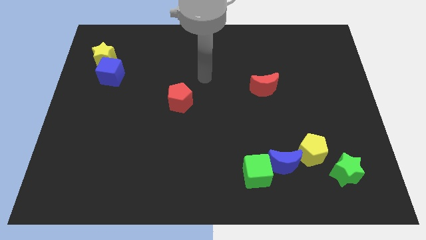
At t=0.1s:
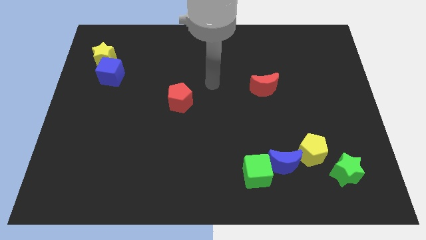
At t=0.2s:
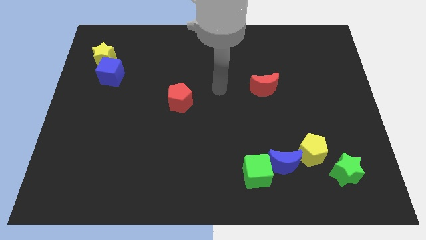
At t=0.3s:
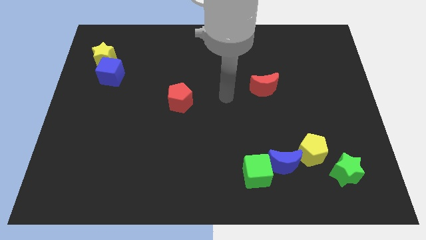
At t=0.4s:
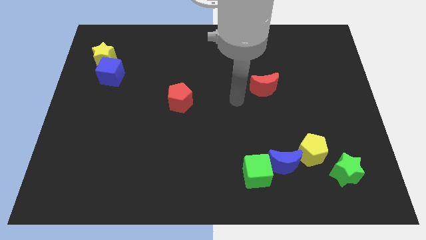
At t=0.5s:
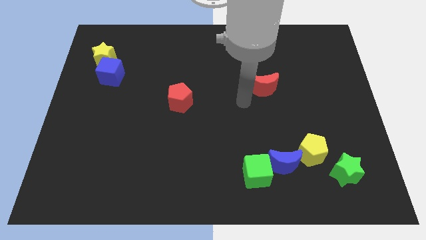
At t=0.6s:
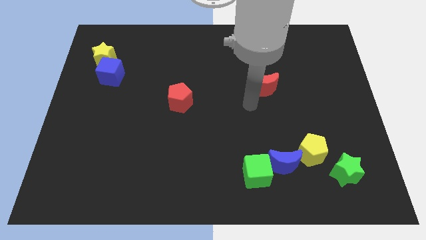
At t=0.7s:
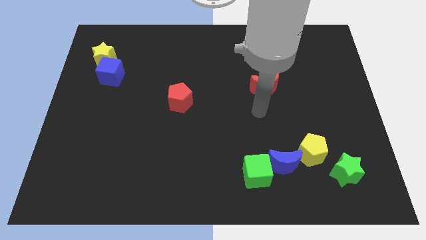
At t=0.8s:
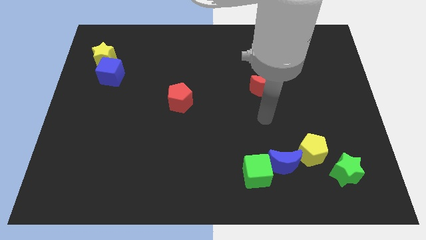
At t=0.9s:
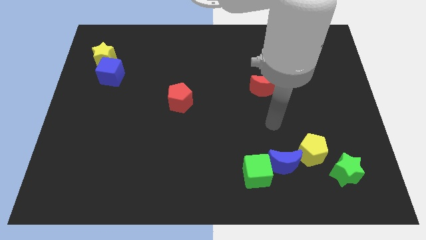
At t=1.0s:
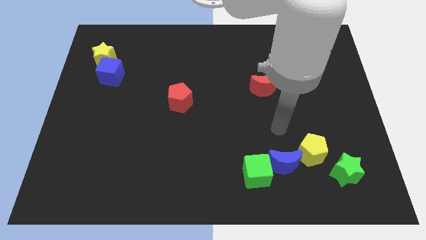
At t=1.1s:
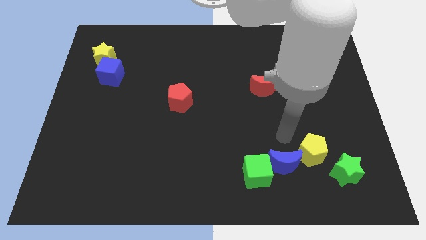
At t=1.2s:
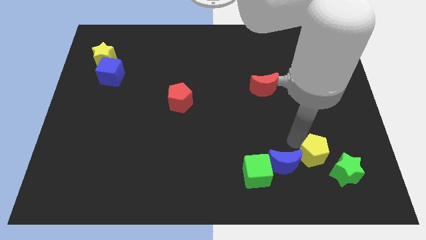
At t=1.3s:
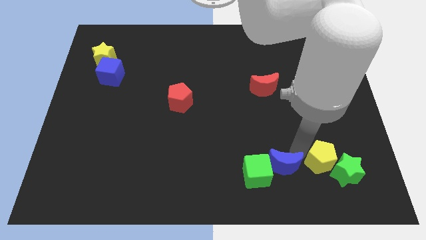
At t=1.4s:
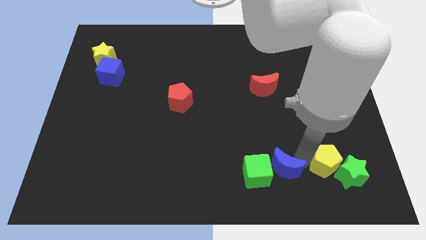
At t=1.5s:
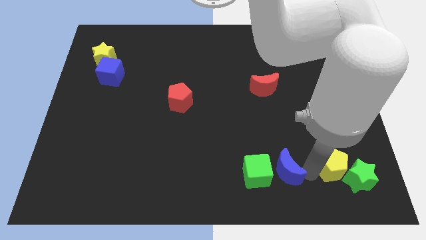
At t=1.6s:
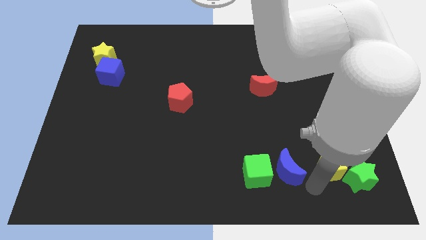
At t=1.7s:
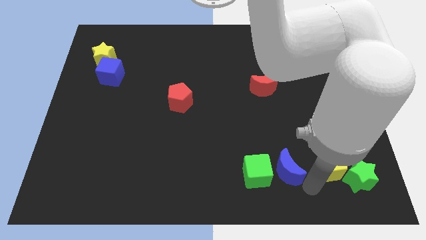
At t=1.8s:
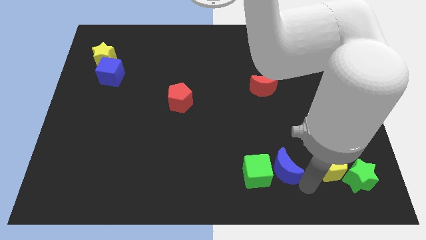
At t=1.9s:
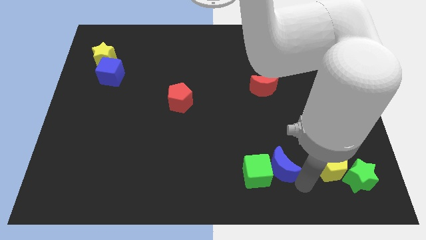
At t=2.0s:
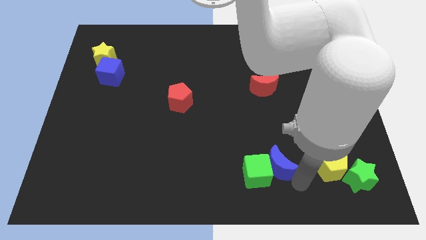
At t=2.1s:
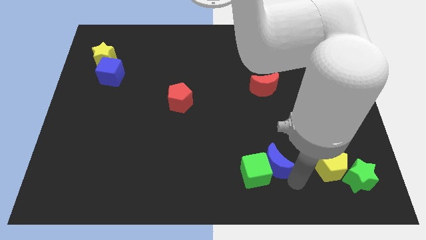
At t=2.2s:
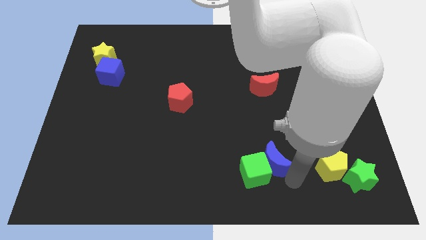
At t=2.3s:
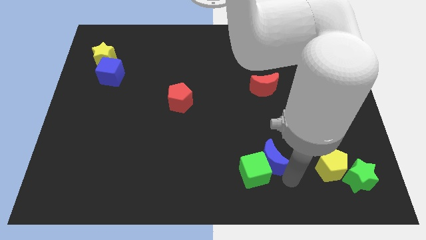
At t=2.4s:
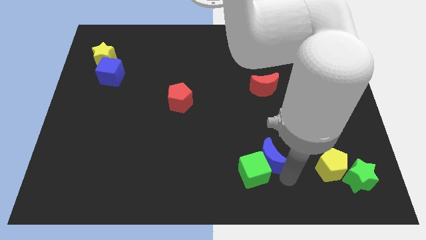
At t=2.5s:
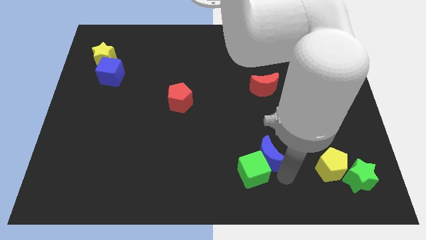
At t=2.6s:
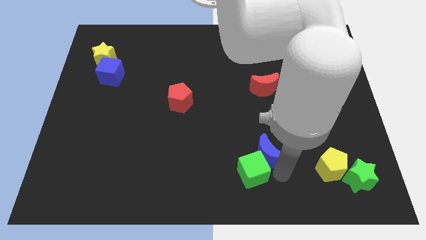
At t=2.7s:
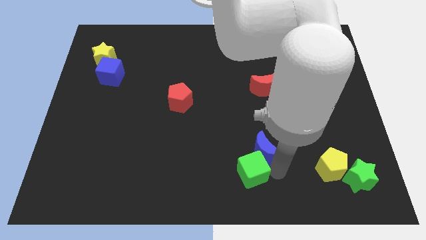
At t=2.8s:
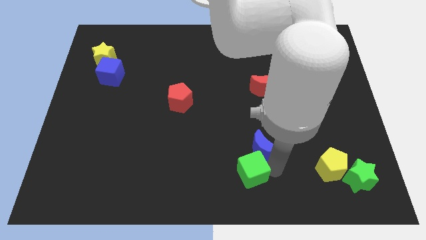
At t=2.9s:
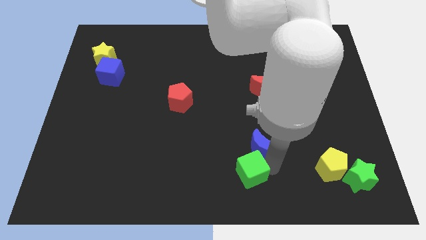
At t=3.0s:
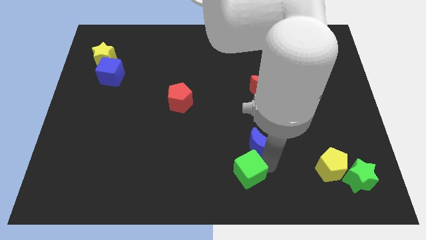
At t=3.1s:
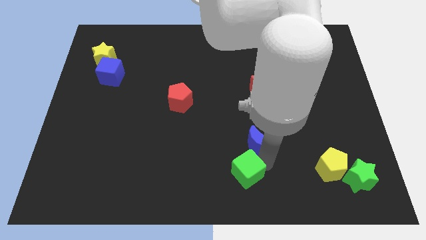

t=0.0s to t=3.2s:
slightly slide the blue moon upwards and then to the left

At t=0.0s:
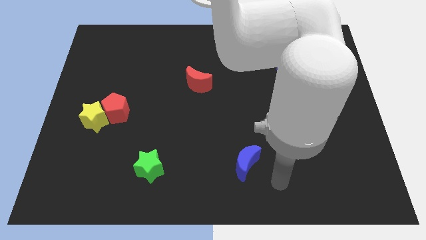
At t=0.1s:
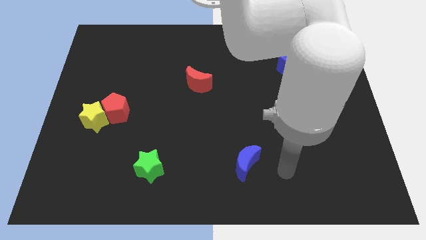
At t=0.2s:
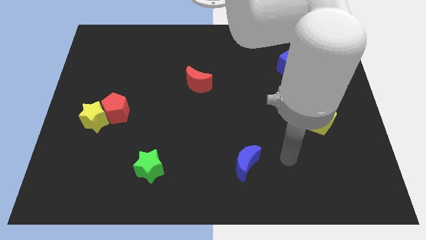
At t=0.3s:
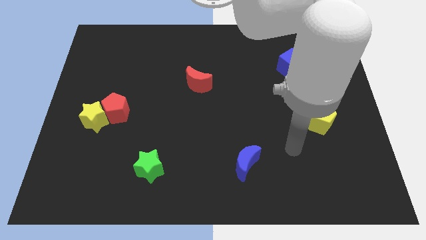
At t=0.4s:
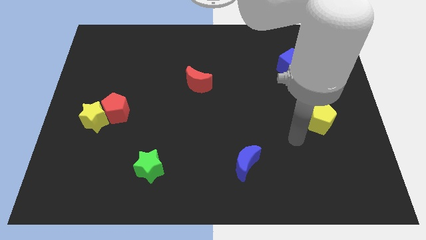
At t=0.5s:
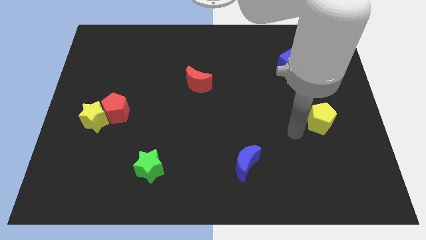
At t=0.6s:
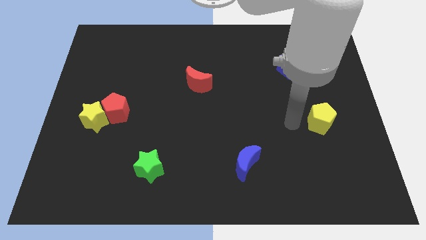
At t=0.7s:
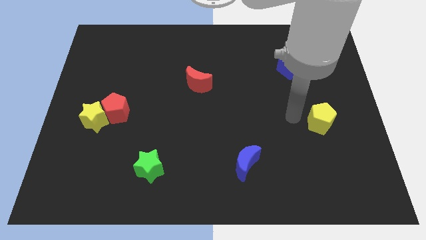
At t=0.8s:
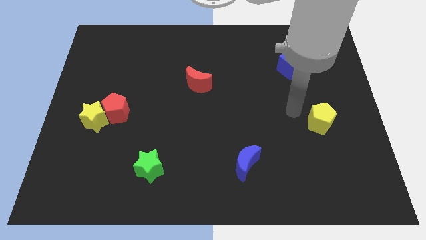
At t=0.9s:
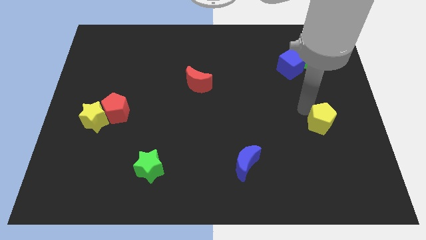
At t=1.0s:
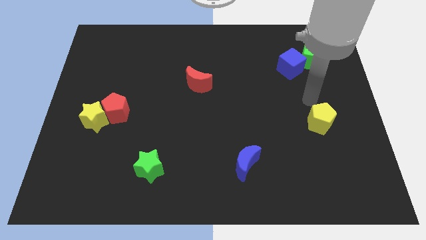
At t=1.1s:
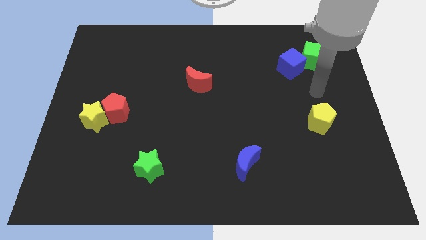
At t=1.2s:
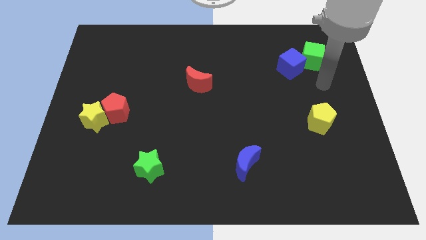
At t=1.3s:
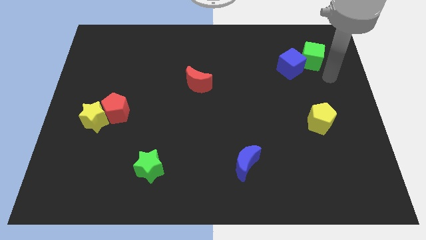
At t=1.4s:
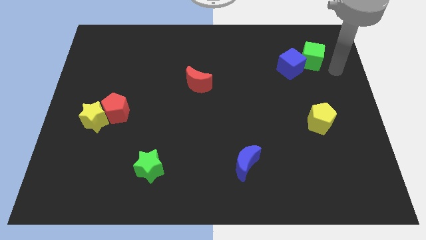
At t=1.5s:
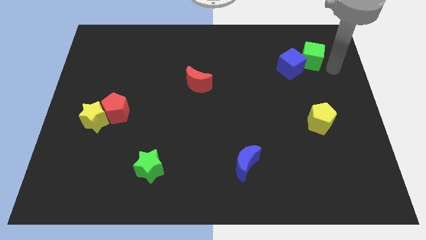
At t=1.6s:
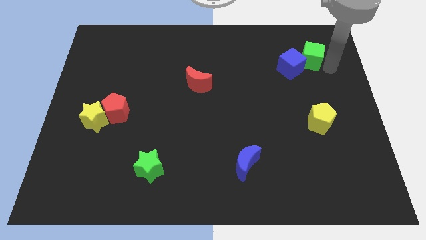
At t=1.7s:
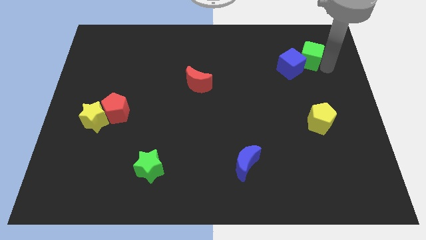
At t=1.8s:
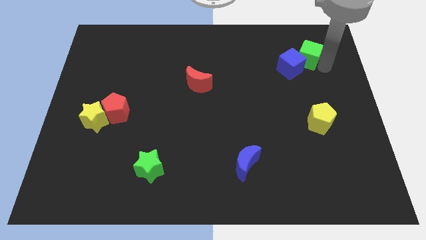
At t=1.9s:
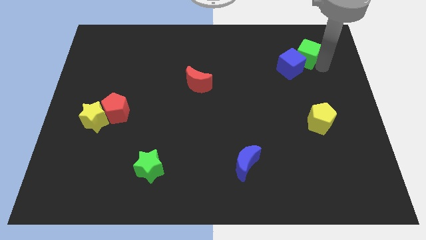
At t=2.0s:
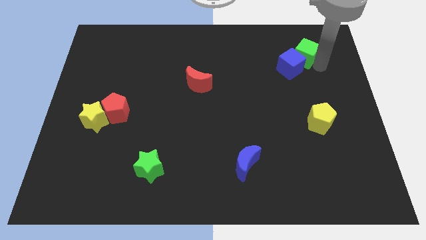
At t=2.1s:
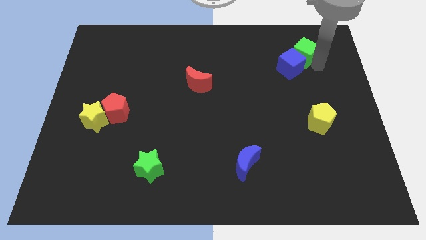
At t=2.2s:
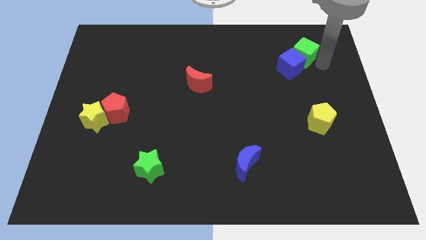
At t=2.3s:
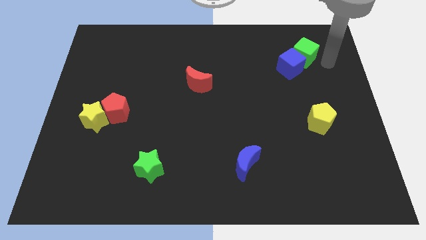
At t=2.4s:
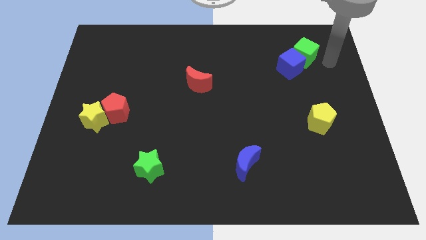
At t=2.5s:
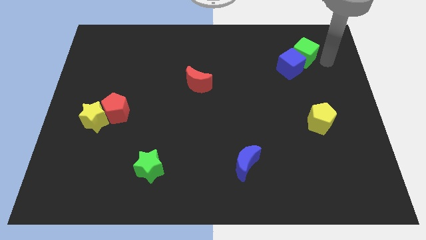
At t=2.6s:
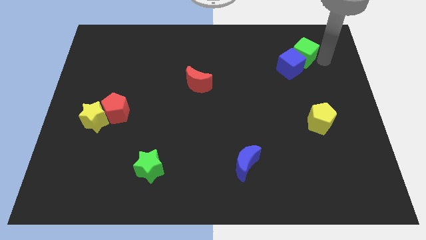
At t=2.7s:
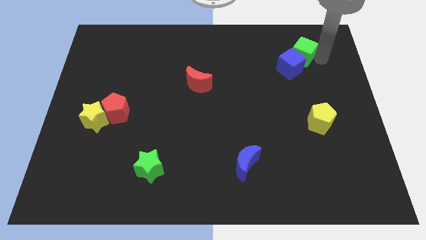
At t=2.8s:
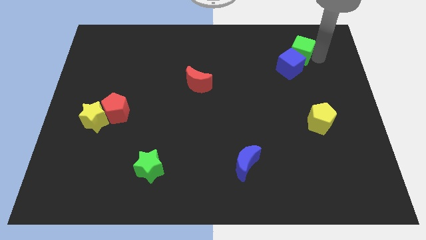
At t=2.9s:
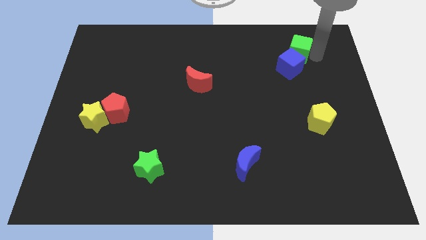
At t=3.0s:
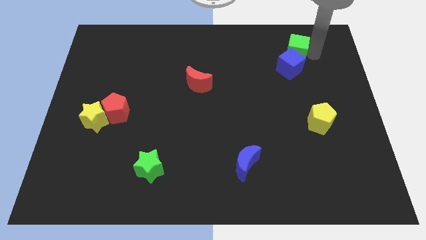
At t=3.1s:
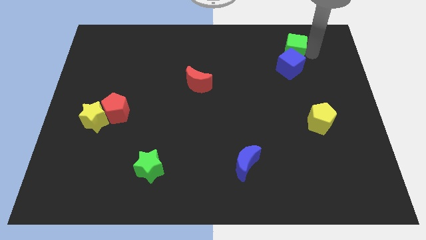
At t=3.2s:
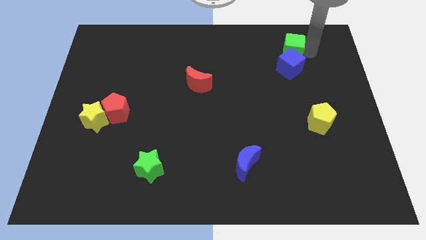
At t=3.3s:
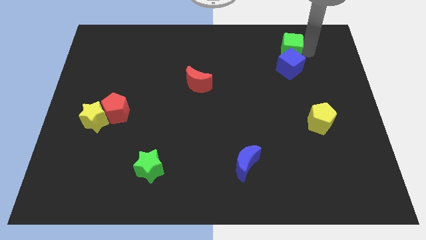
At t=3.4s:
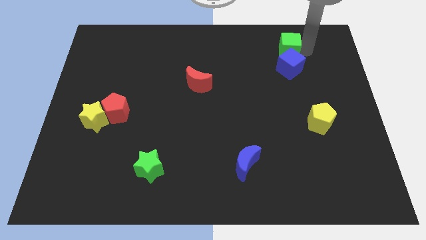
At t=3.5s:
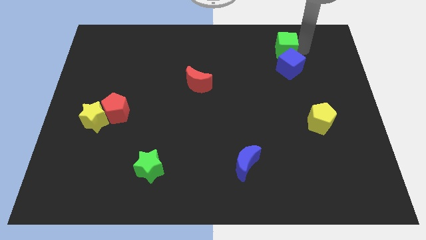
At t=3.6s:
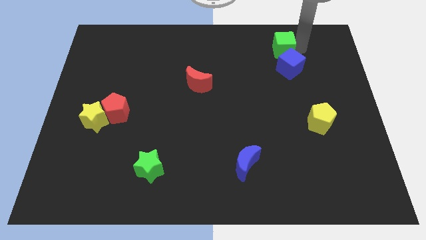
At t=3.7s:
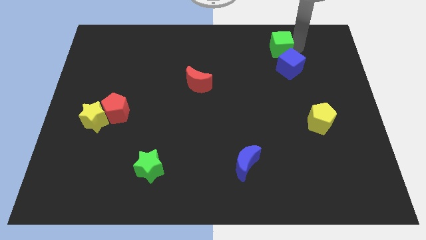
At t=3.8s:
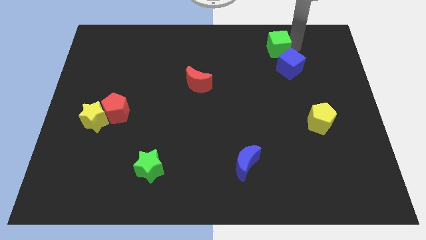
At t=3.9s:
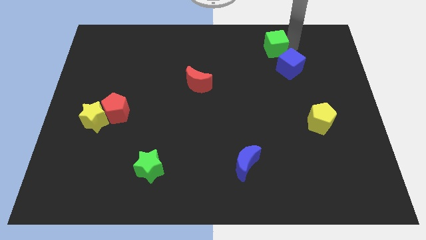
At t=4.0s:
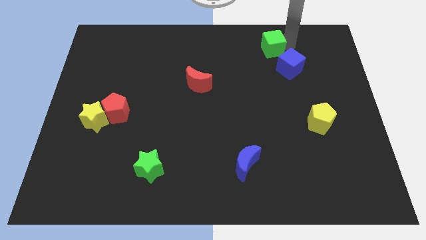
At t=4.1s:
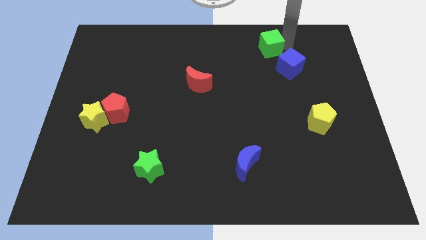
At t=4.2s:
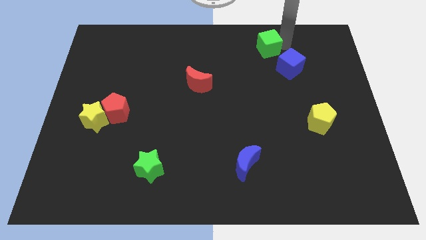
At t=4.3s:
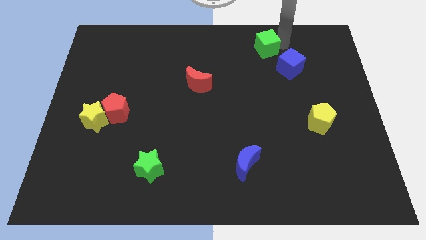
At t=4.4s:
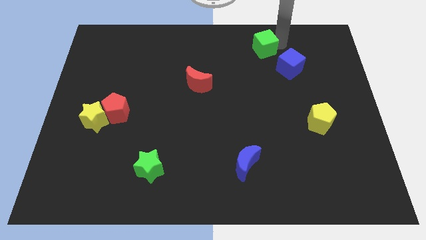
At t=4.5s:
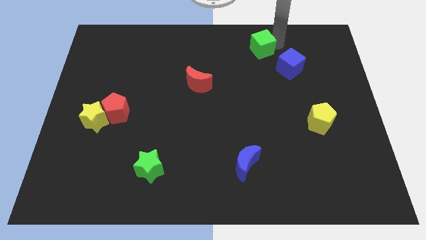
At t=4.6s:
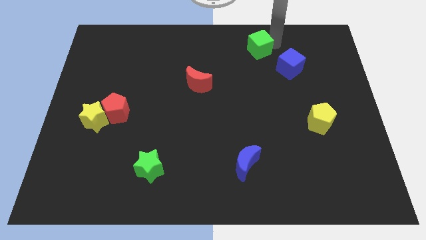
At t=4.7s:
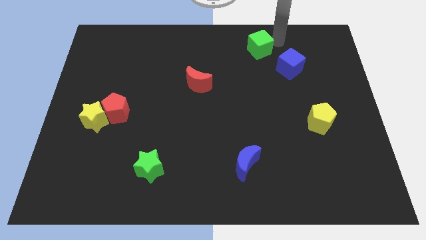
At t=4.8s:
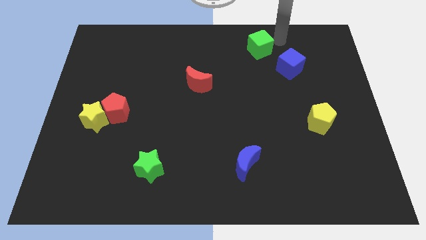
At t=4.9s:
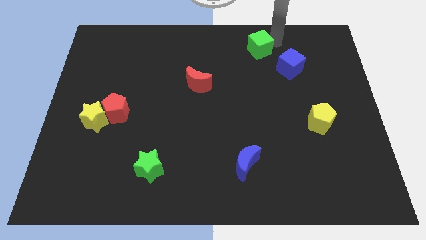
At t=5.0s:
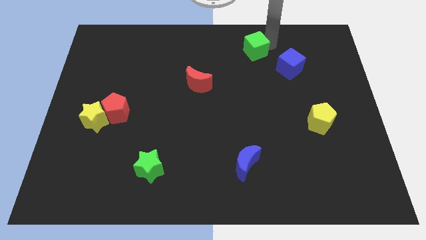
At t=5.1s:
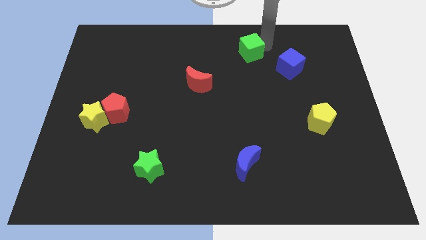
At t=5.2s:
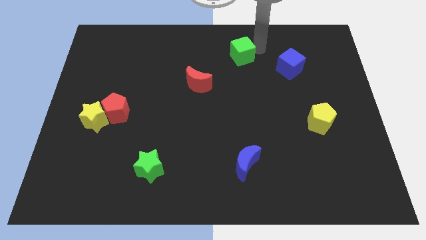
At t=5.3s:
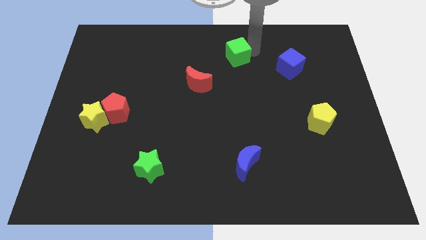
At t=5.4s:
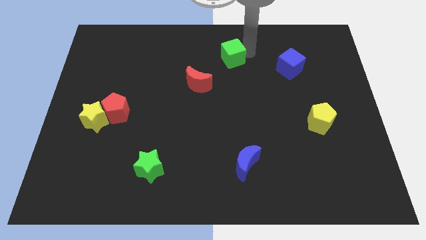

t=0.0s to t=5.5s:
move the green cube to the left
